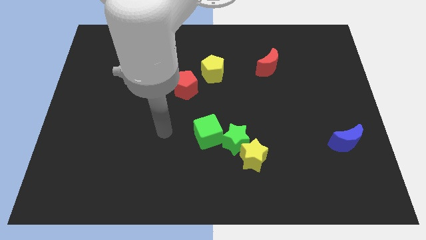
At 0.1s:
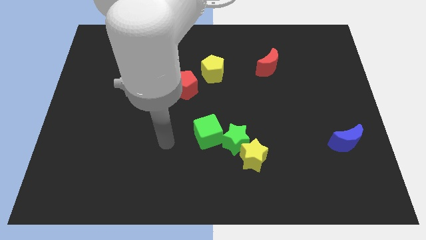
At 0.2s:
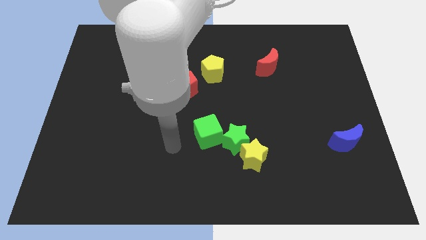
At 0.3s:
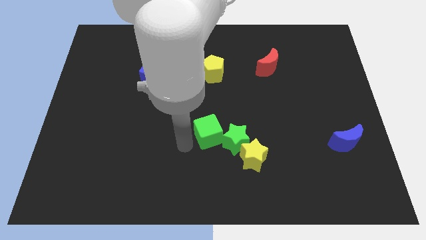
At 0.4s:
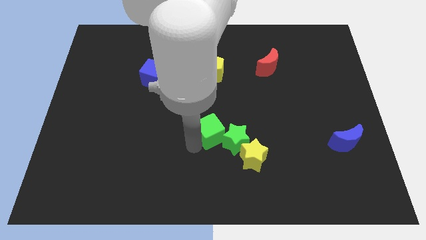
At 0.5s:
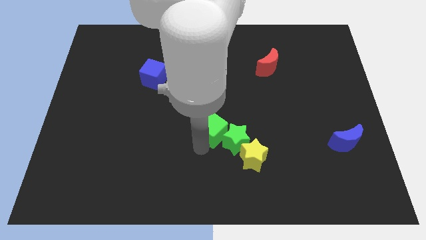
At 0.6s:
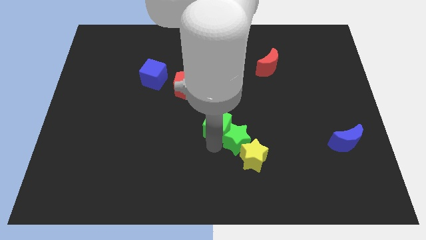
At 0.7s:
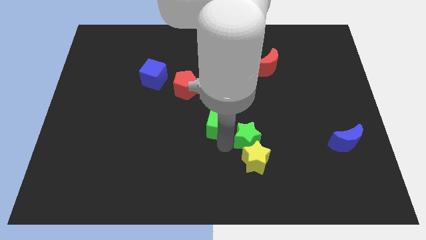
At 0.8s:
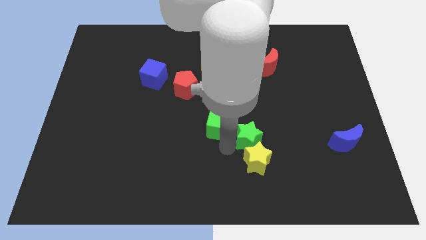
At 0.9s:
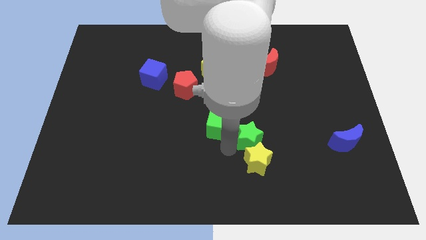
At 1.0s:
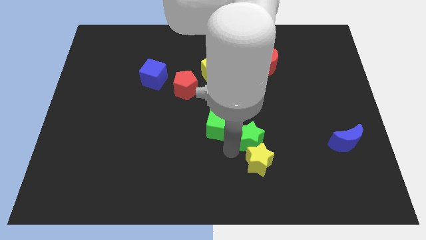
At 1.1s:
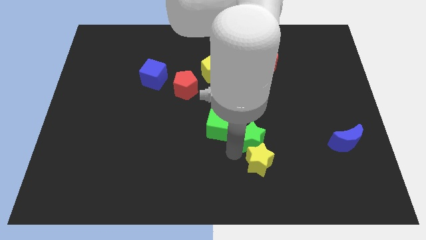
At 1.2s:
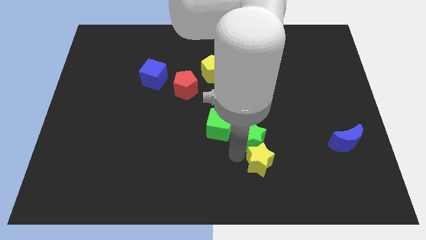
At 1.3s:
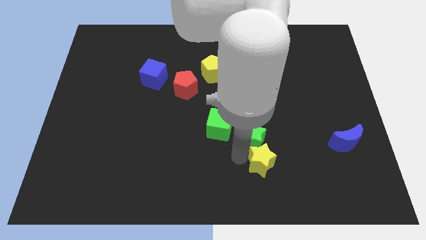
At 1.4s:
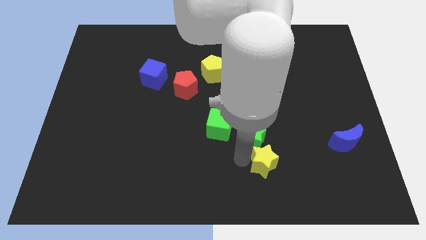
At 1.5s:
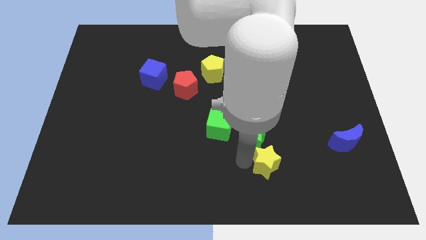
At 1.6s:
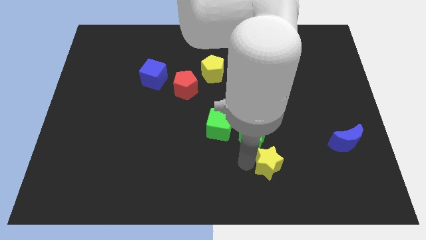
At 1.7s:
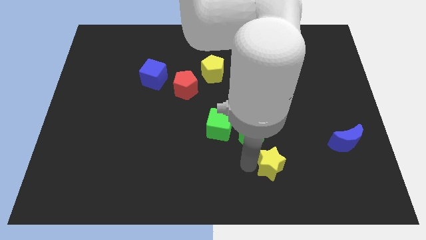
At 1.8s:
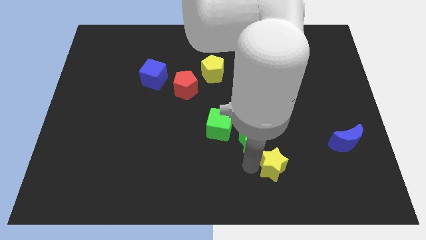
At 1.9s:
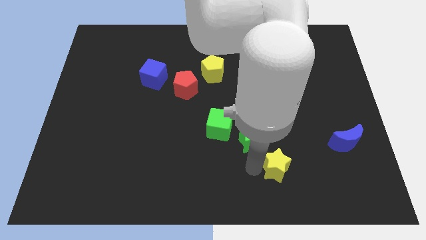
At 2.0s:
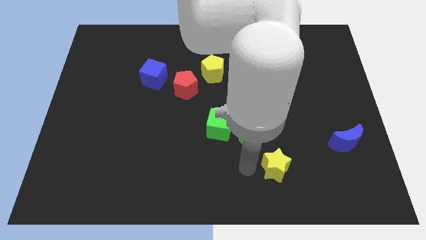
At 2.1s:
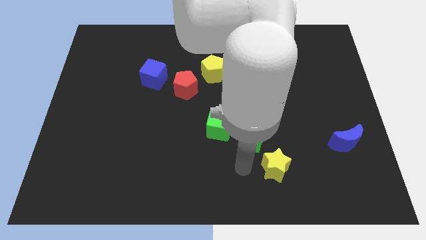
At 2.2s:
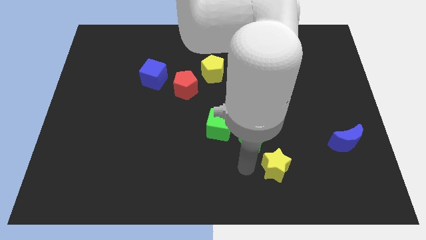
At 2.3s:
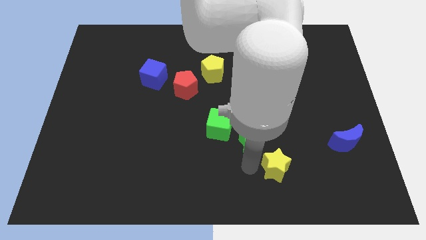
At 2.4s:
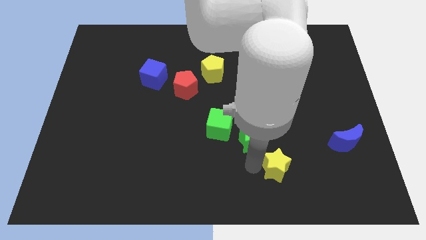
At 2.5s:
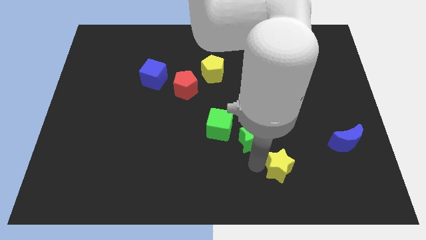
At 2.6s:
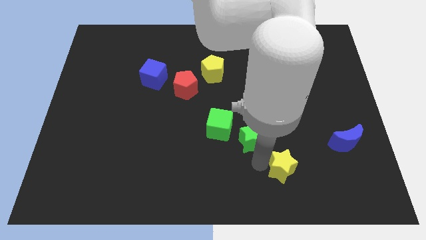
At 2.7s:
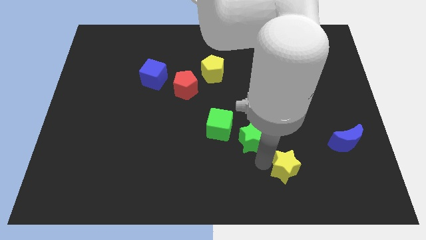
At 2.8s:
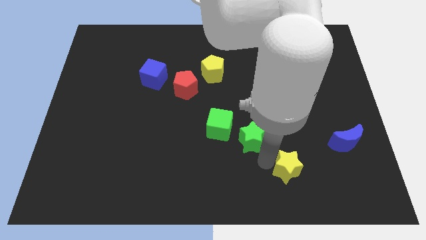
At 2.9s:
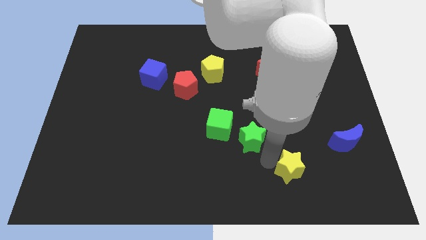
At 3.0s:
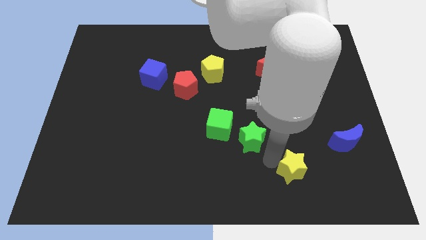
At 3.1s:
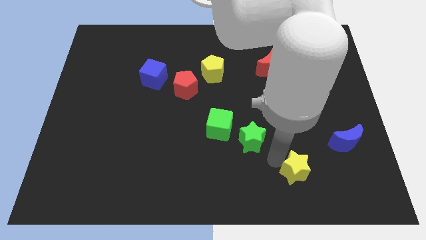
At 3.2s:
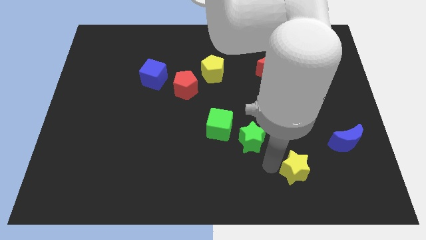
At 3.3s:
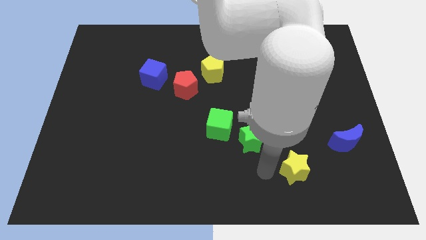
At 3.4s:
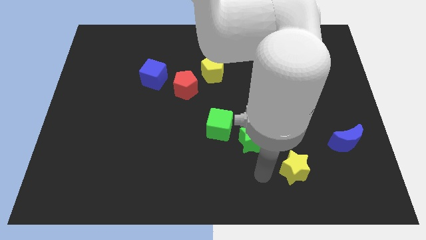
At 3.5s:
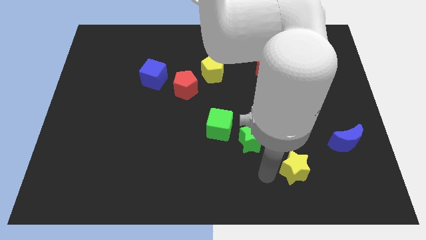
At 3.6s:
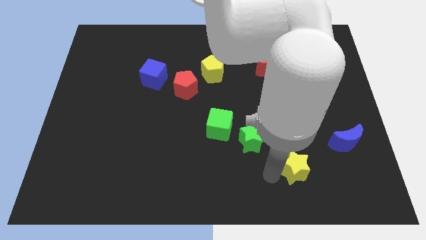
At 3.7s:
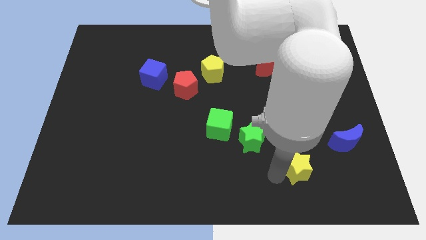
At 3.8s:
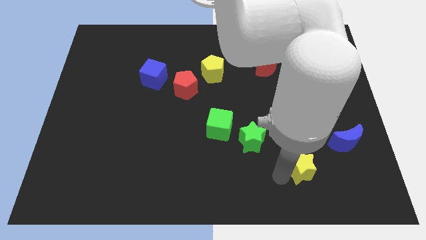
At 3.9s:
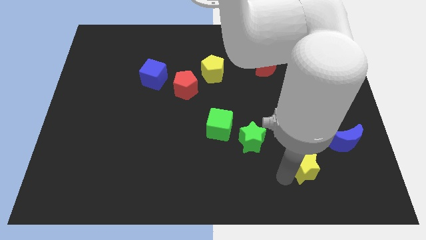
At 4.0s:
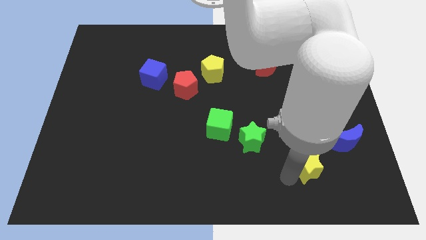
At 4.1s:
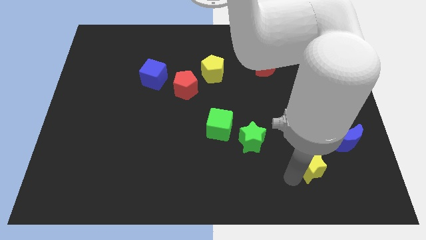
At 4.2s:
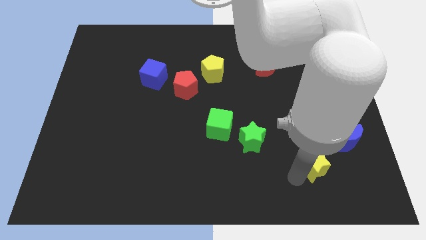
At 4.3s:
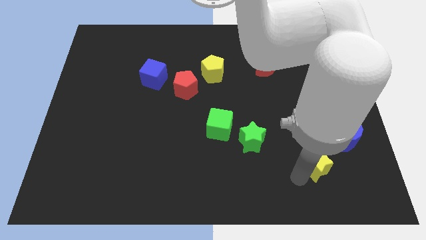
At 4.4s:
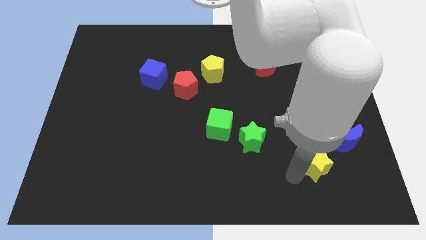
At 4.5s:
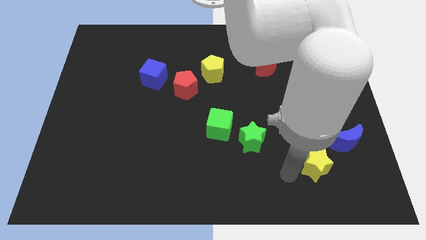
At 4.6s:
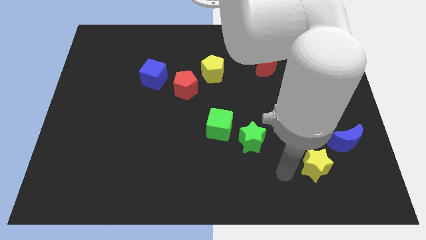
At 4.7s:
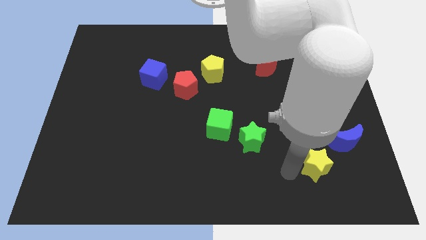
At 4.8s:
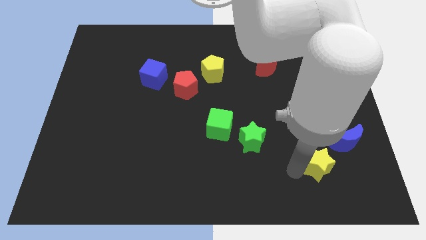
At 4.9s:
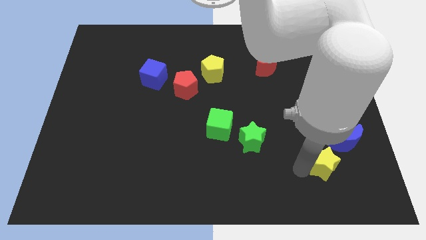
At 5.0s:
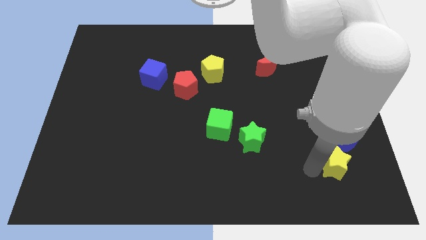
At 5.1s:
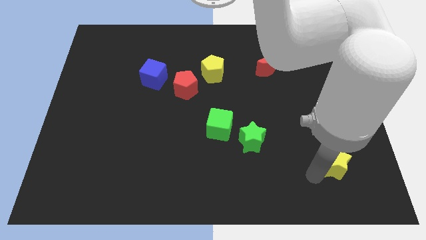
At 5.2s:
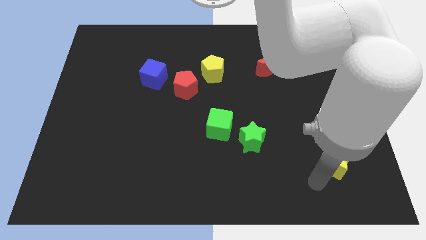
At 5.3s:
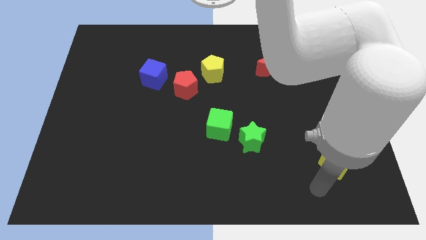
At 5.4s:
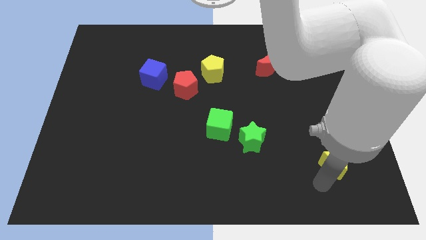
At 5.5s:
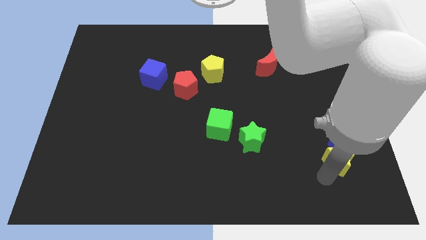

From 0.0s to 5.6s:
slide the yellow star close to the blue moon

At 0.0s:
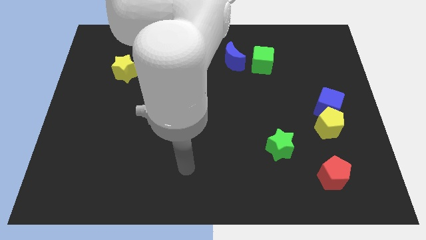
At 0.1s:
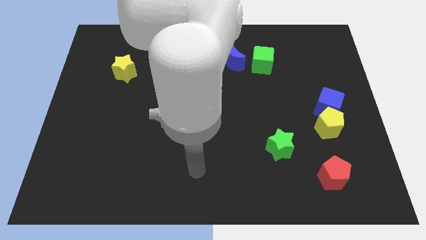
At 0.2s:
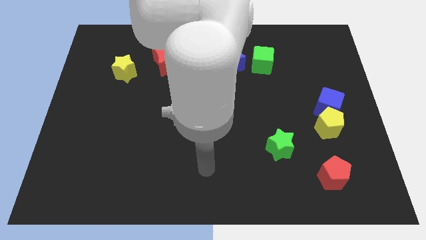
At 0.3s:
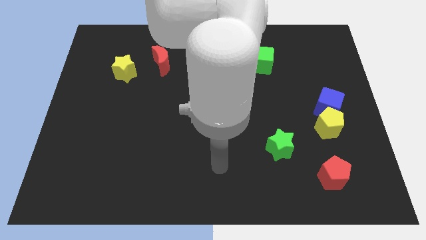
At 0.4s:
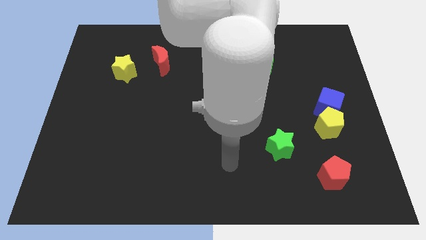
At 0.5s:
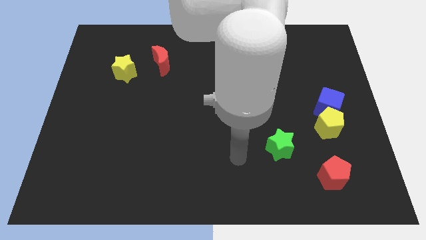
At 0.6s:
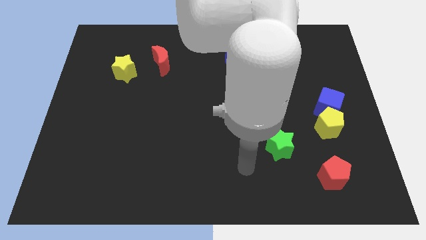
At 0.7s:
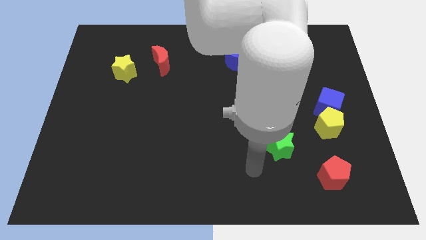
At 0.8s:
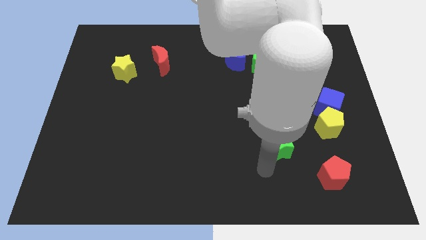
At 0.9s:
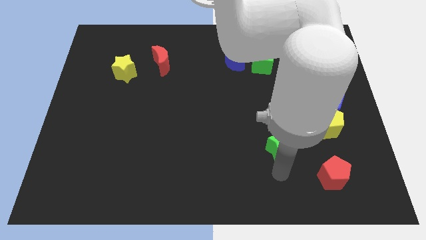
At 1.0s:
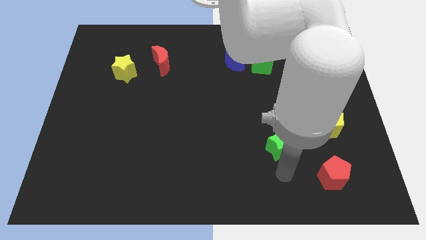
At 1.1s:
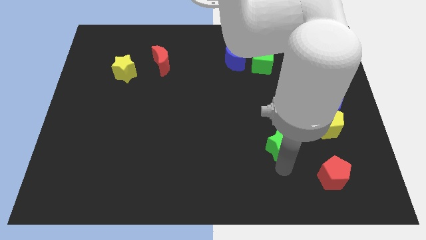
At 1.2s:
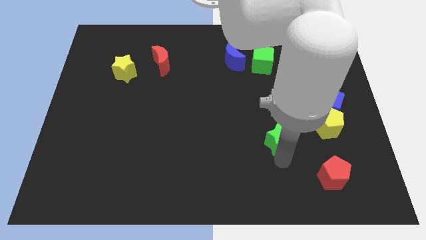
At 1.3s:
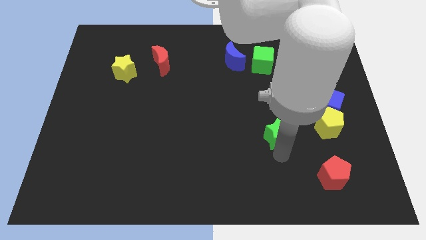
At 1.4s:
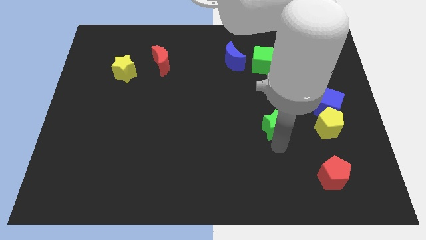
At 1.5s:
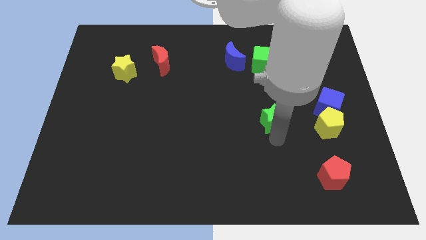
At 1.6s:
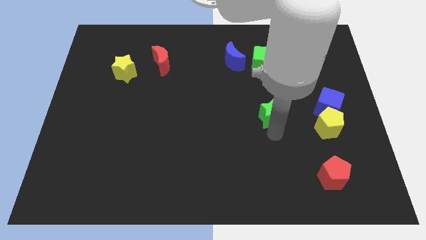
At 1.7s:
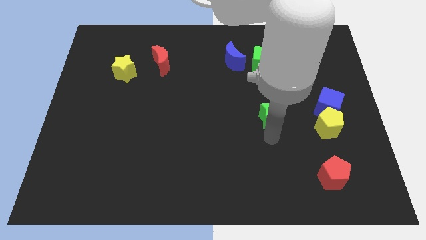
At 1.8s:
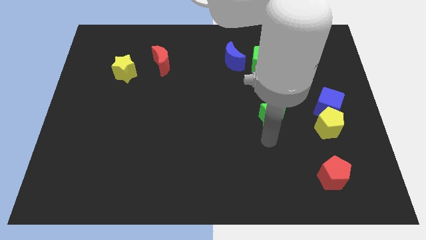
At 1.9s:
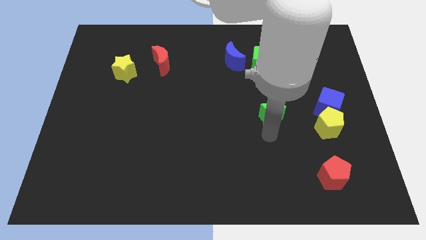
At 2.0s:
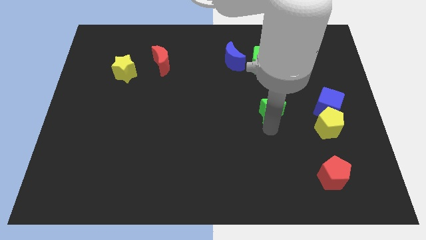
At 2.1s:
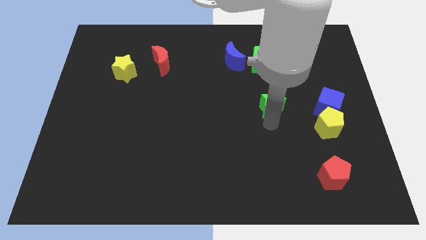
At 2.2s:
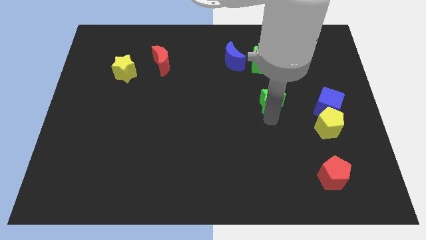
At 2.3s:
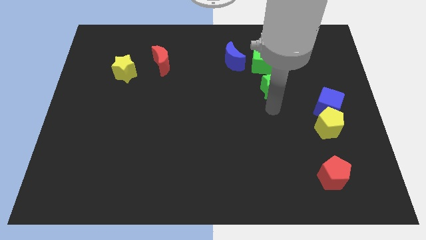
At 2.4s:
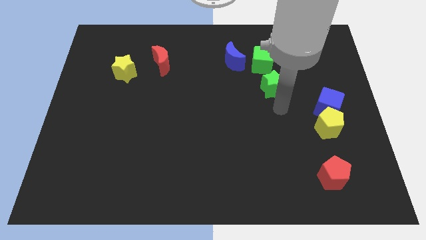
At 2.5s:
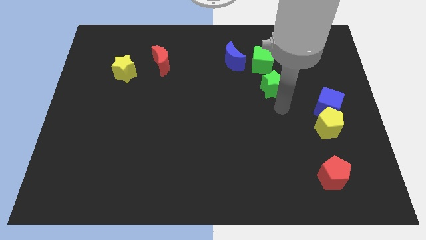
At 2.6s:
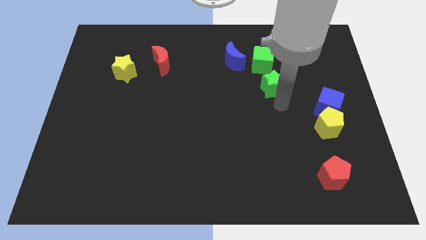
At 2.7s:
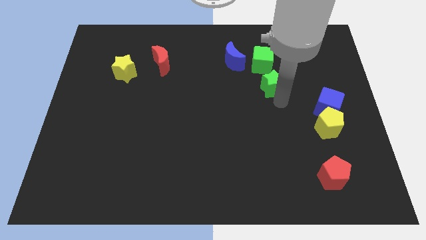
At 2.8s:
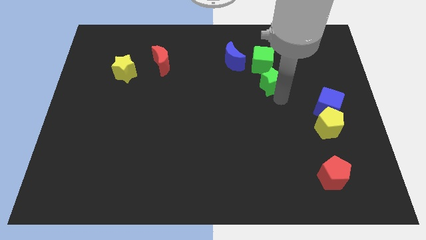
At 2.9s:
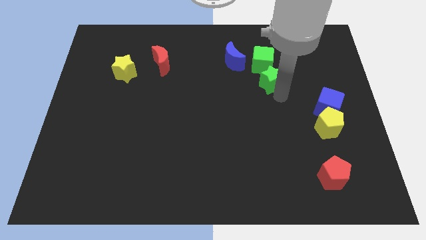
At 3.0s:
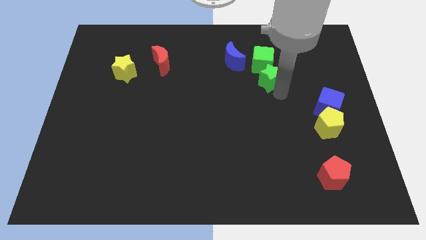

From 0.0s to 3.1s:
put the green star towards the green cube
